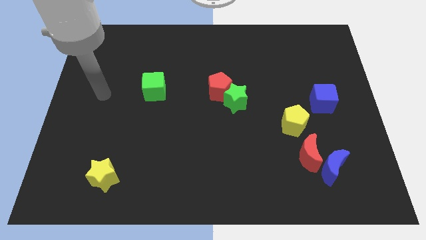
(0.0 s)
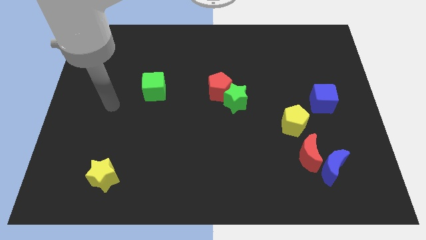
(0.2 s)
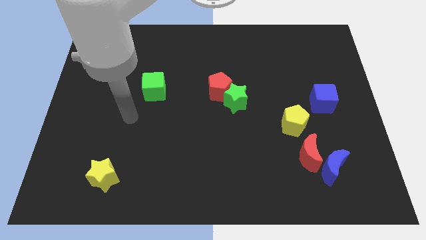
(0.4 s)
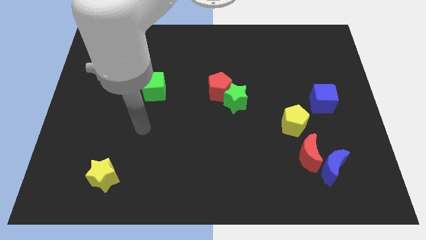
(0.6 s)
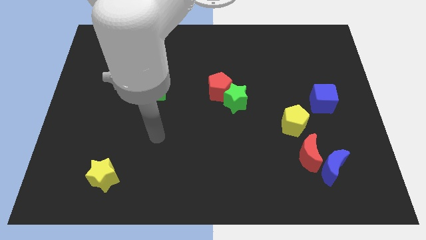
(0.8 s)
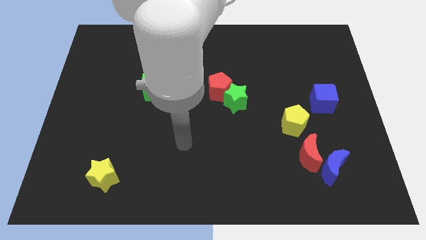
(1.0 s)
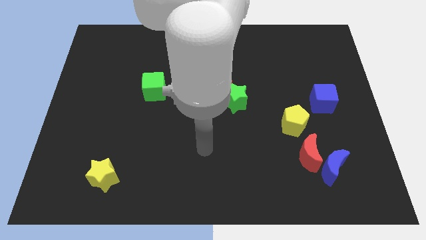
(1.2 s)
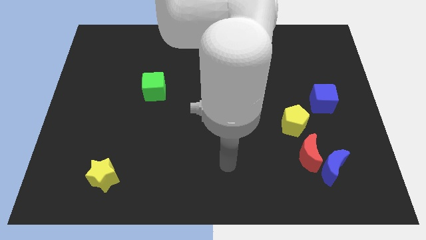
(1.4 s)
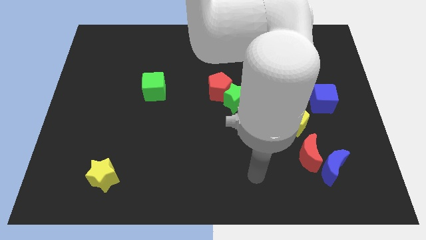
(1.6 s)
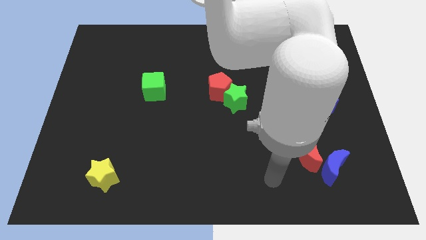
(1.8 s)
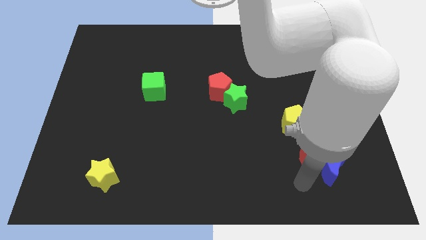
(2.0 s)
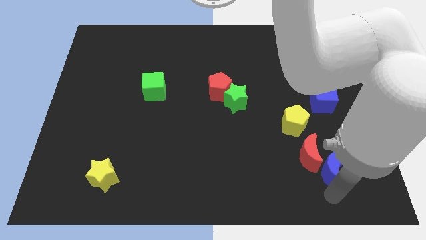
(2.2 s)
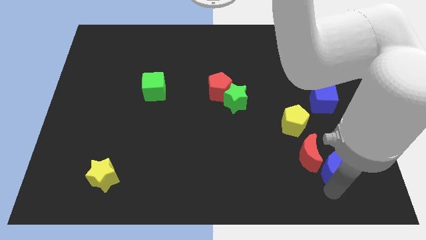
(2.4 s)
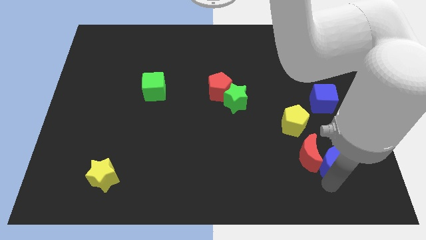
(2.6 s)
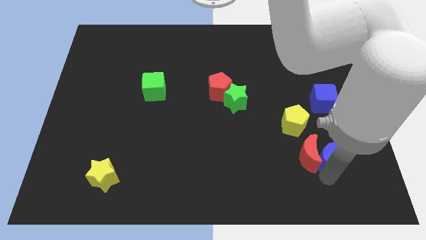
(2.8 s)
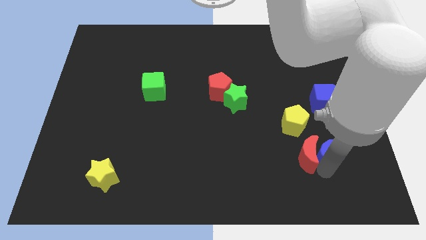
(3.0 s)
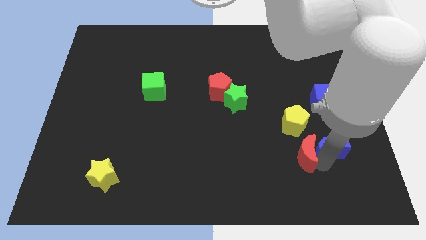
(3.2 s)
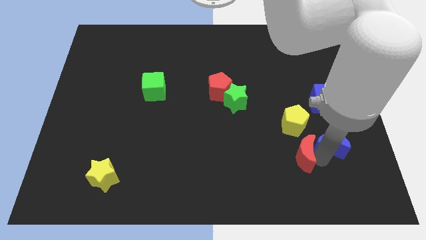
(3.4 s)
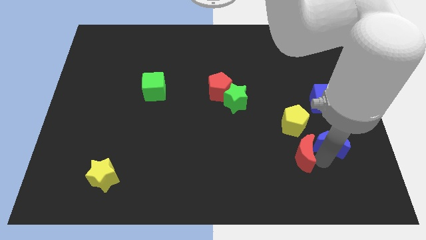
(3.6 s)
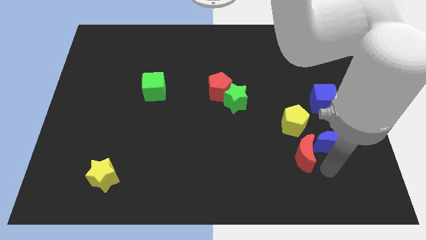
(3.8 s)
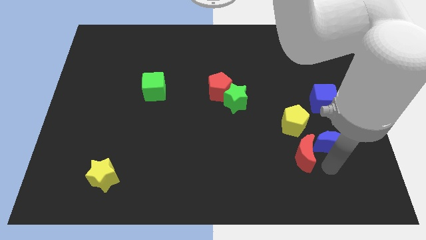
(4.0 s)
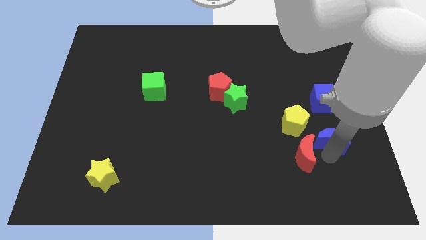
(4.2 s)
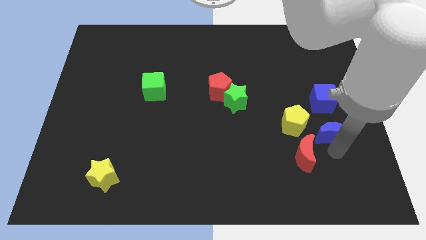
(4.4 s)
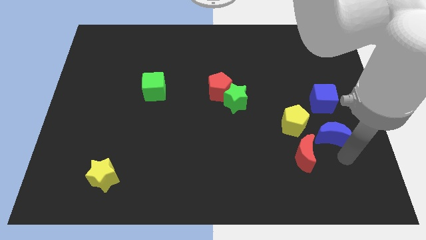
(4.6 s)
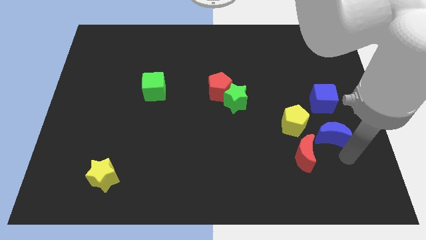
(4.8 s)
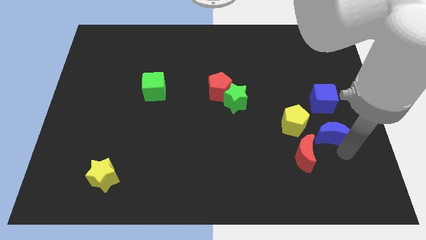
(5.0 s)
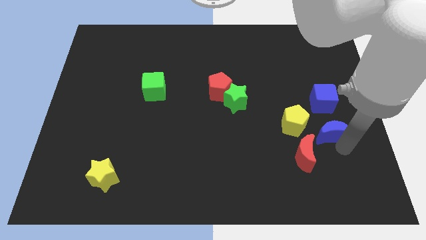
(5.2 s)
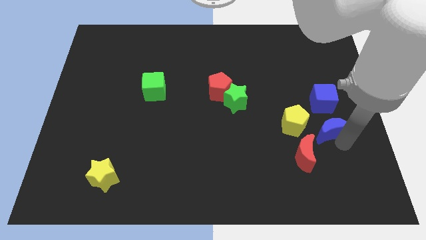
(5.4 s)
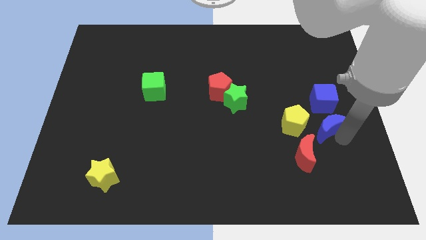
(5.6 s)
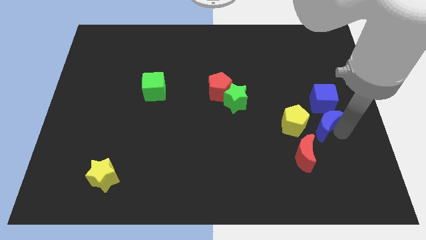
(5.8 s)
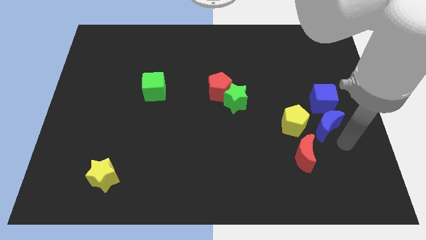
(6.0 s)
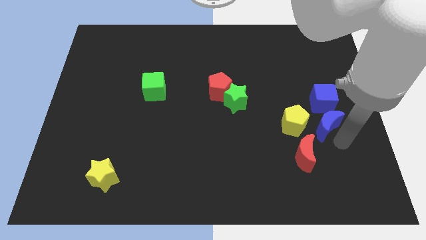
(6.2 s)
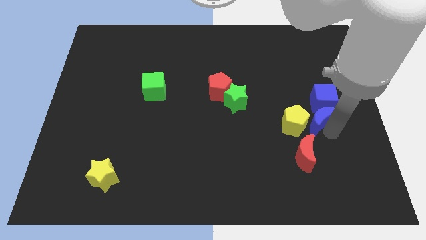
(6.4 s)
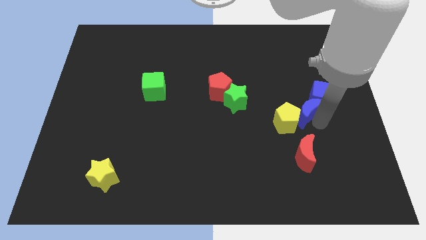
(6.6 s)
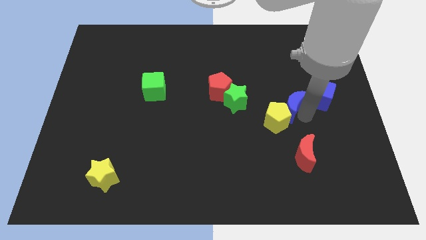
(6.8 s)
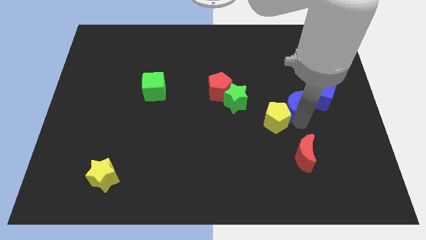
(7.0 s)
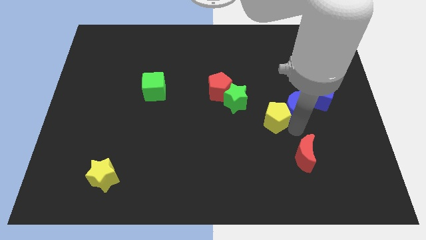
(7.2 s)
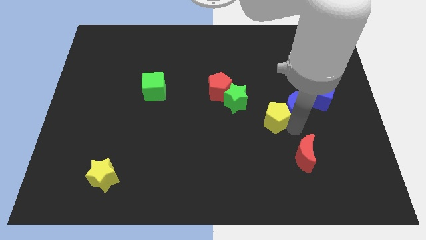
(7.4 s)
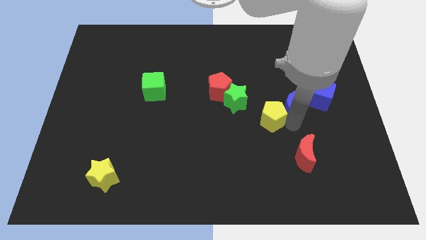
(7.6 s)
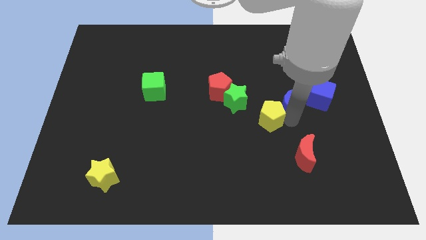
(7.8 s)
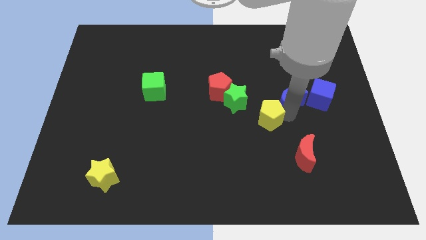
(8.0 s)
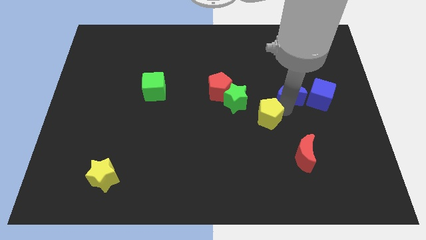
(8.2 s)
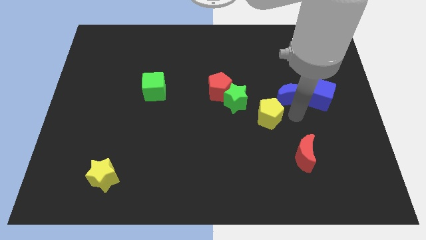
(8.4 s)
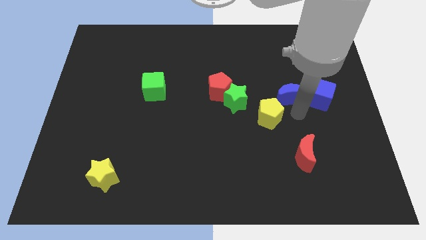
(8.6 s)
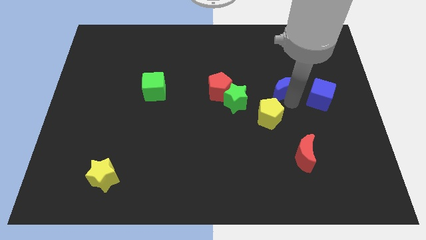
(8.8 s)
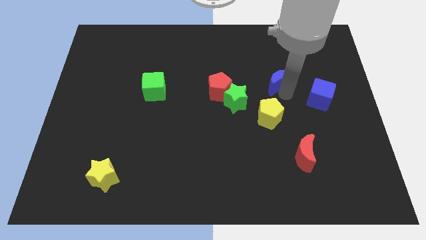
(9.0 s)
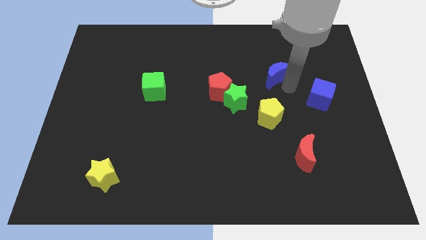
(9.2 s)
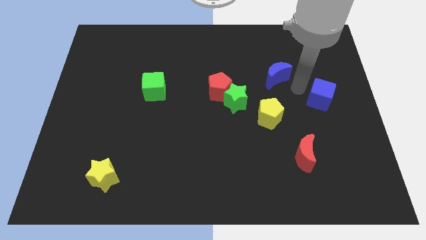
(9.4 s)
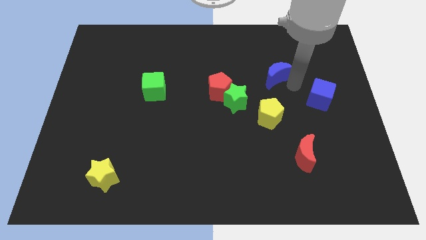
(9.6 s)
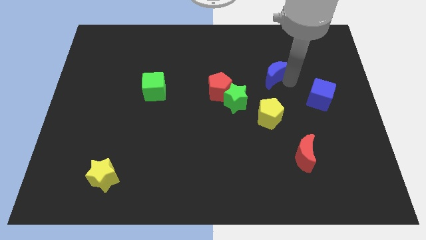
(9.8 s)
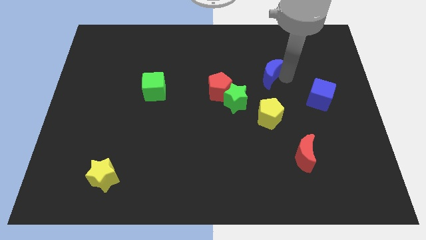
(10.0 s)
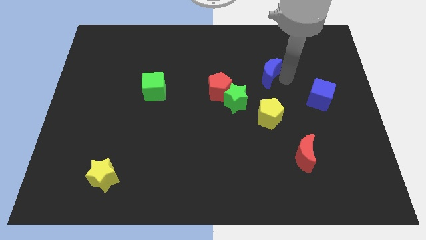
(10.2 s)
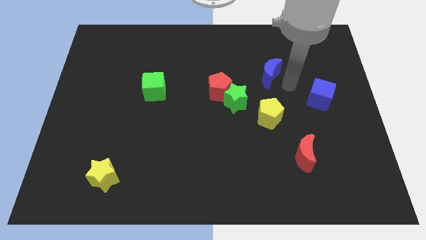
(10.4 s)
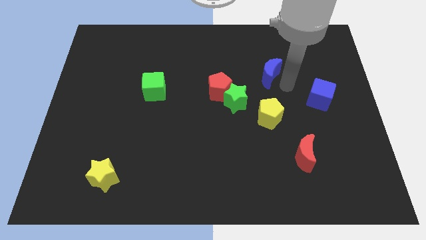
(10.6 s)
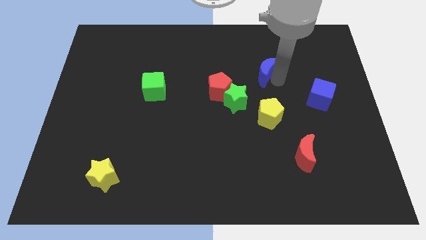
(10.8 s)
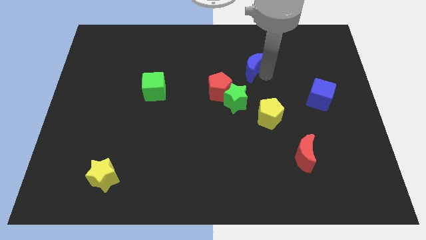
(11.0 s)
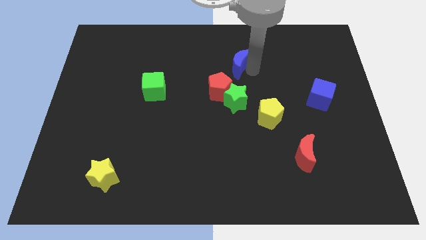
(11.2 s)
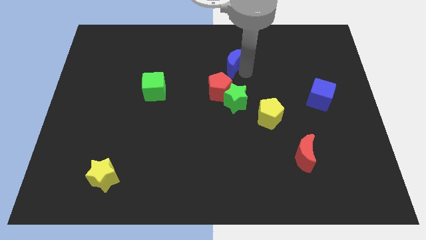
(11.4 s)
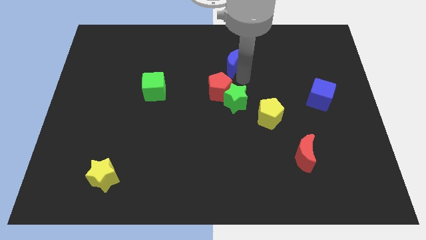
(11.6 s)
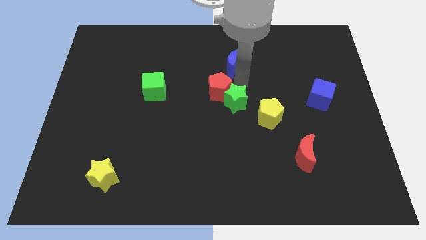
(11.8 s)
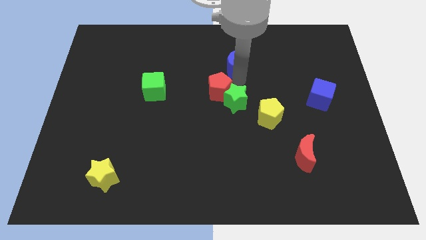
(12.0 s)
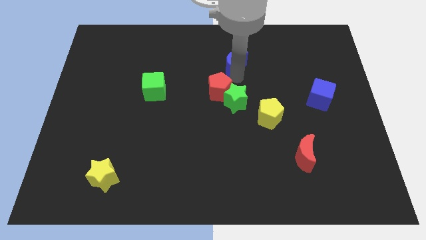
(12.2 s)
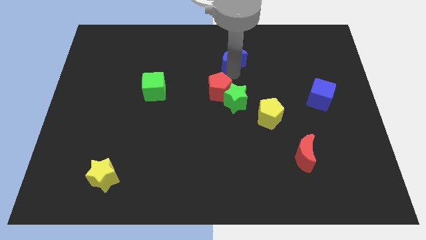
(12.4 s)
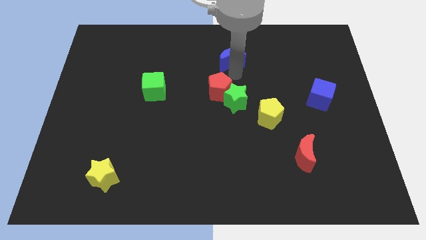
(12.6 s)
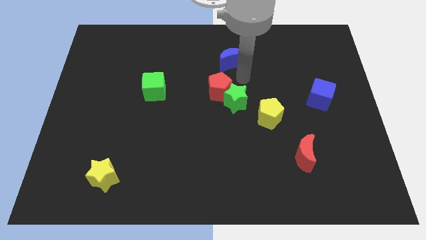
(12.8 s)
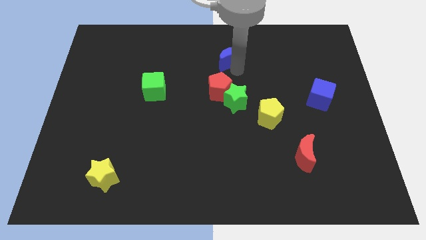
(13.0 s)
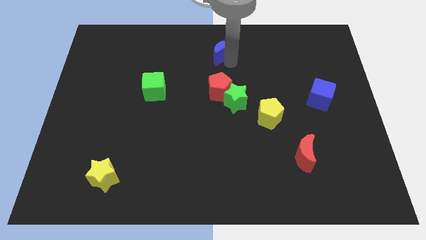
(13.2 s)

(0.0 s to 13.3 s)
push the blue moon to the top side
